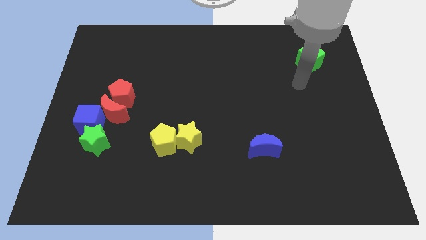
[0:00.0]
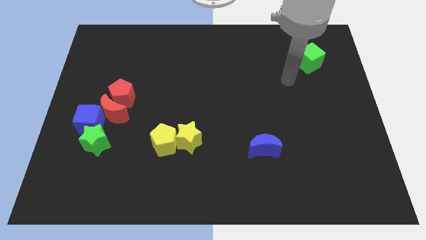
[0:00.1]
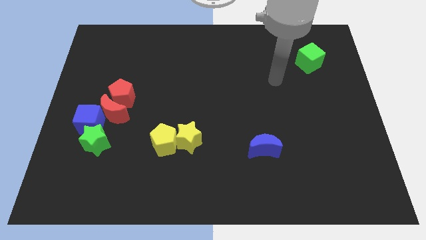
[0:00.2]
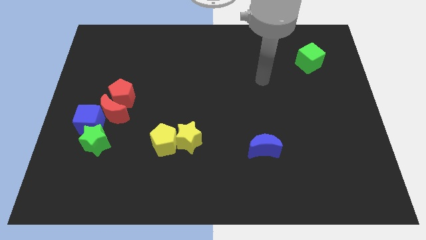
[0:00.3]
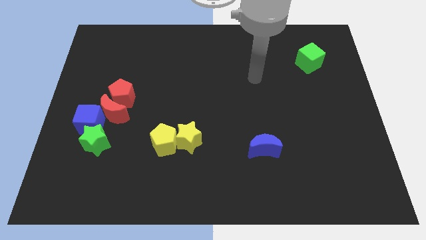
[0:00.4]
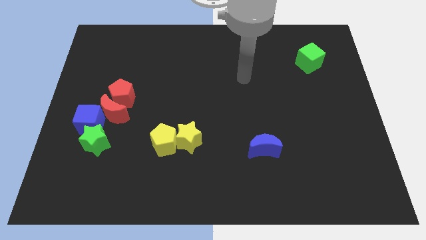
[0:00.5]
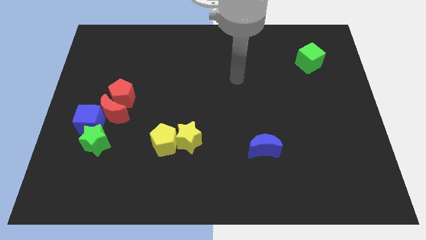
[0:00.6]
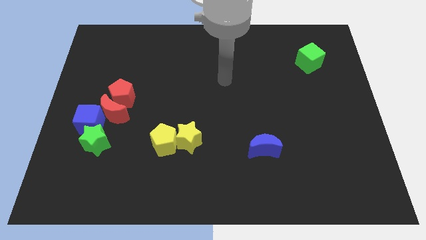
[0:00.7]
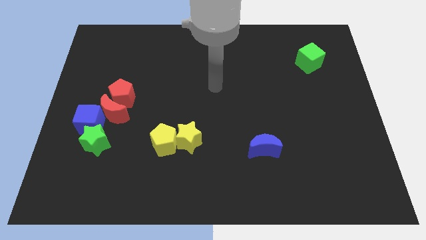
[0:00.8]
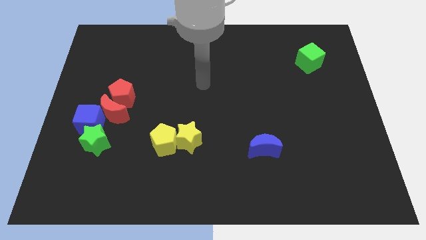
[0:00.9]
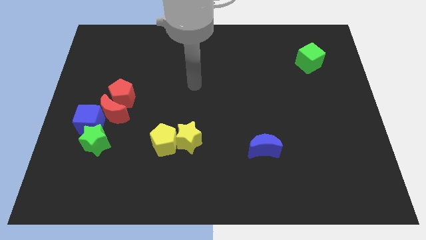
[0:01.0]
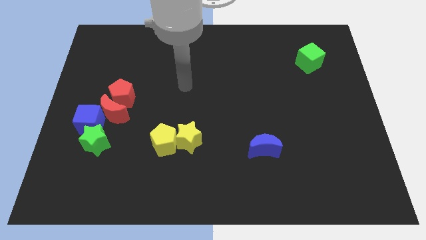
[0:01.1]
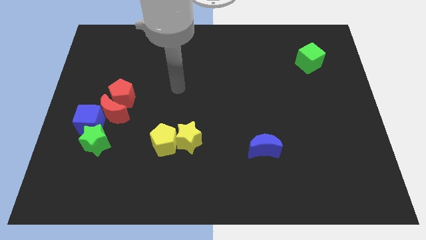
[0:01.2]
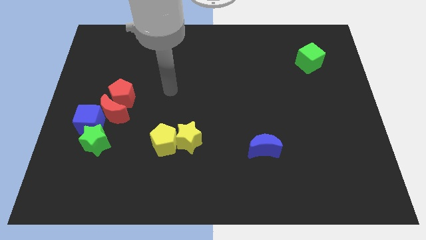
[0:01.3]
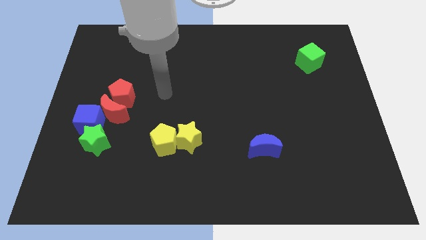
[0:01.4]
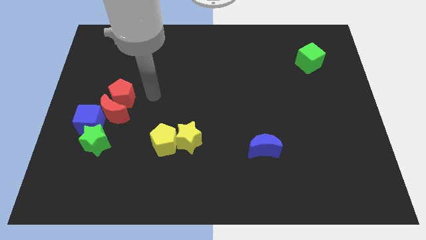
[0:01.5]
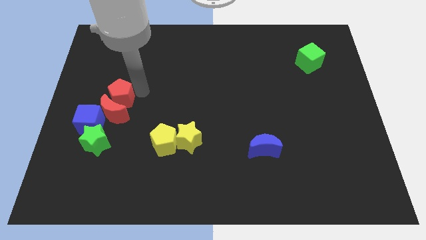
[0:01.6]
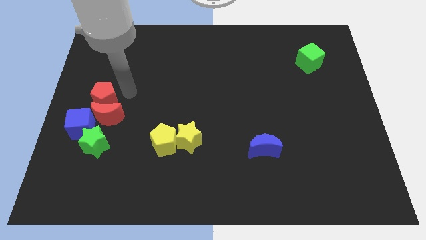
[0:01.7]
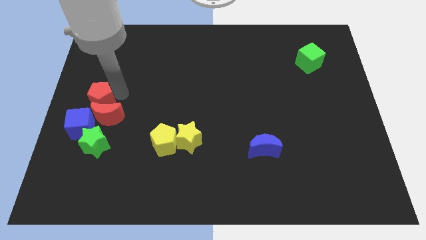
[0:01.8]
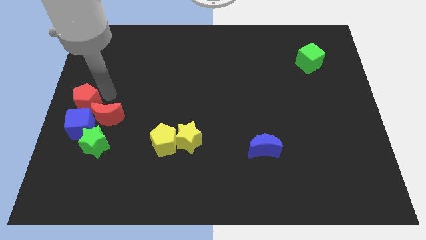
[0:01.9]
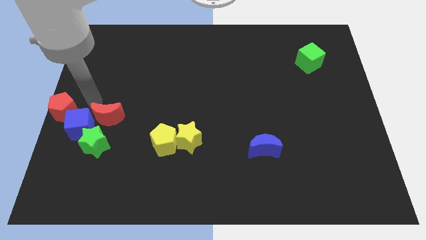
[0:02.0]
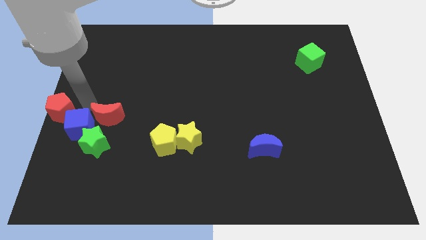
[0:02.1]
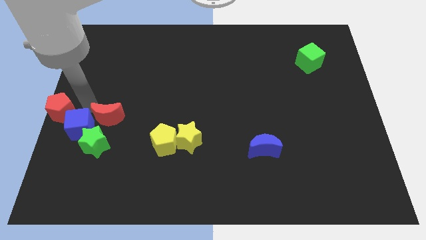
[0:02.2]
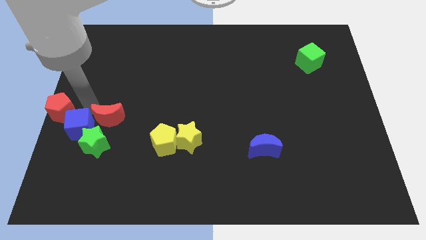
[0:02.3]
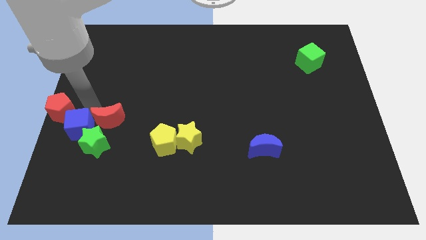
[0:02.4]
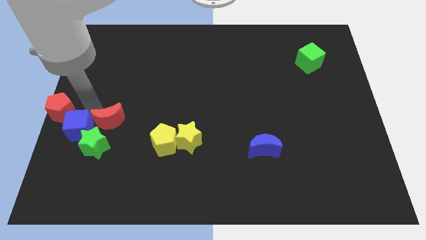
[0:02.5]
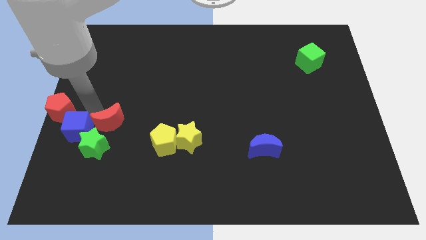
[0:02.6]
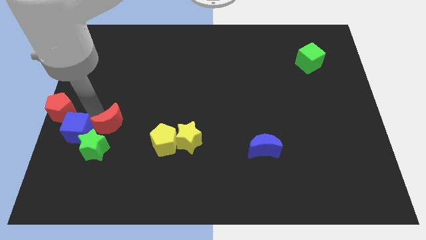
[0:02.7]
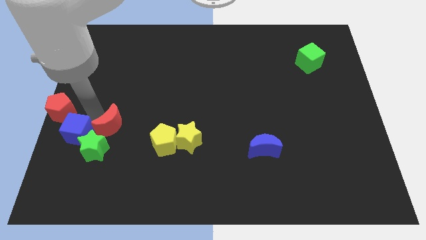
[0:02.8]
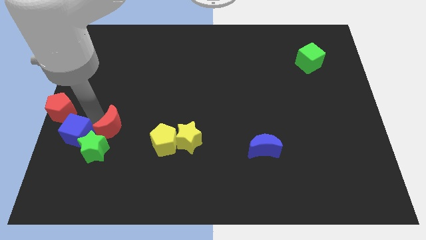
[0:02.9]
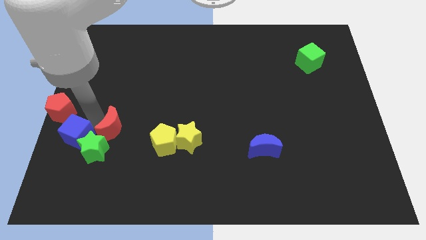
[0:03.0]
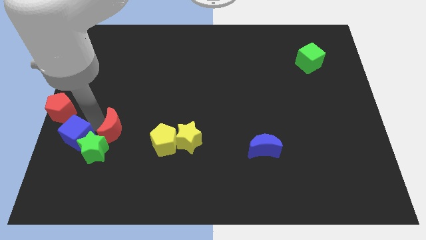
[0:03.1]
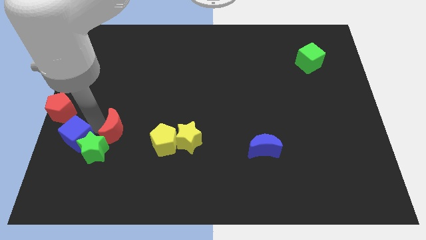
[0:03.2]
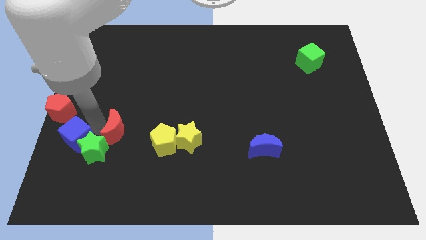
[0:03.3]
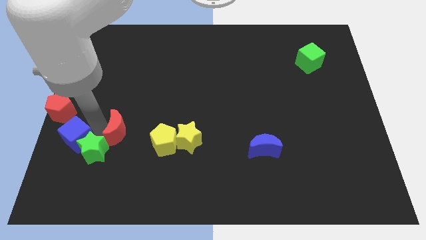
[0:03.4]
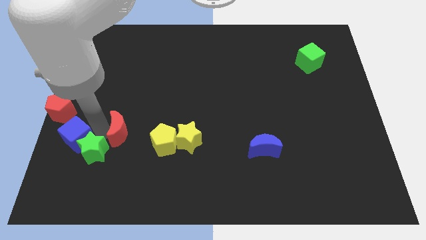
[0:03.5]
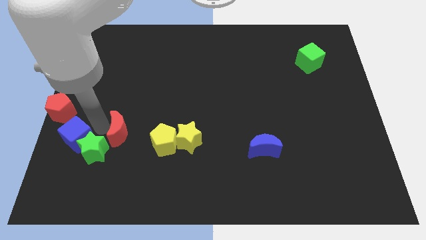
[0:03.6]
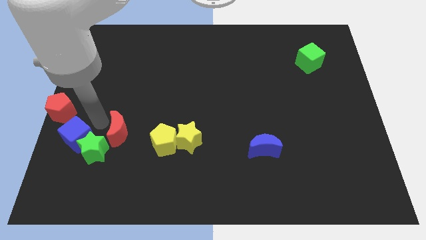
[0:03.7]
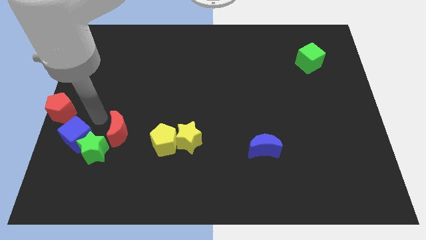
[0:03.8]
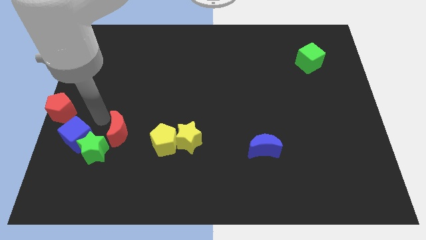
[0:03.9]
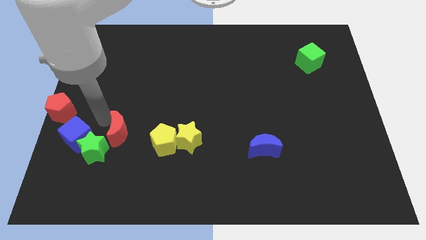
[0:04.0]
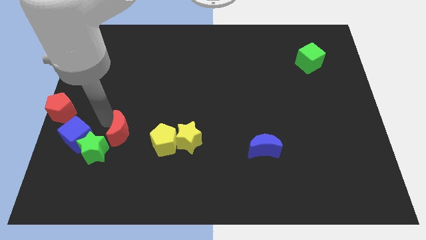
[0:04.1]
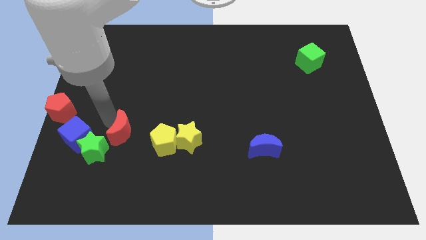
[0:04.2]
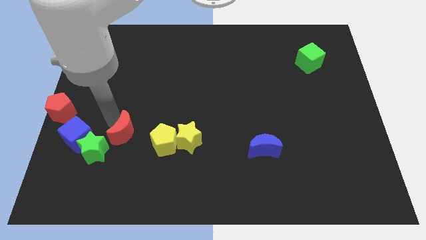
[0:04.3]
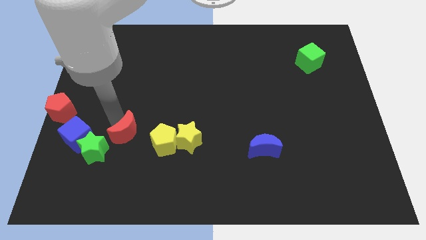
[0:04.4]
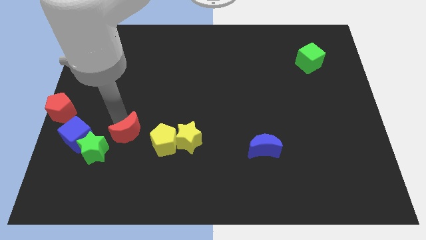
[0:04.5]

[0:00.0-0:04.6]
slide the red moon a little diagonally downwards and to the right

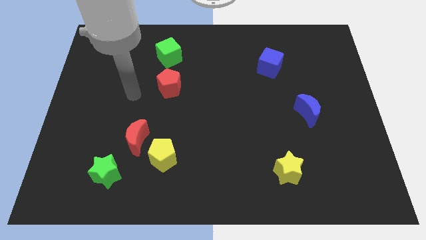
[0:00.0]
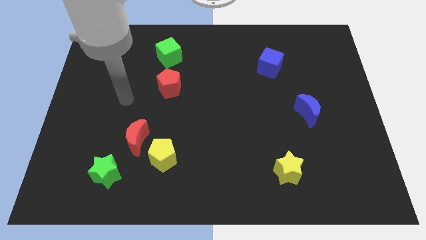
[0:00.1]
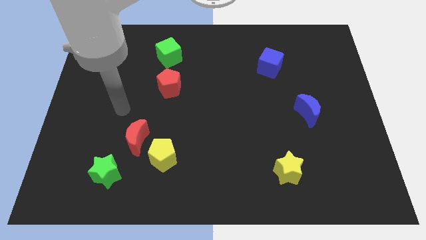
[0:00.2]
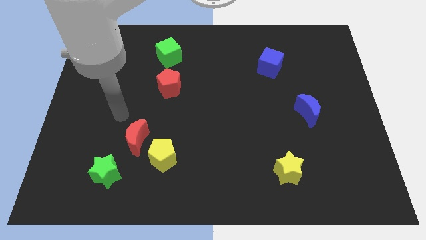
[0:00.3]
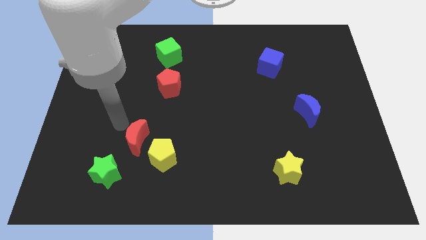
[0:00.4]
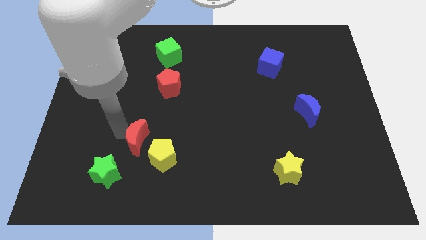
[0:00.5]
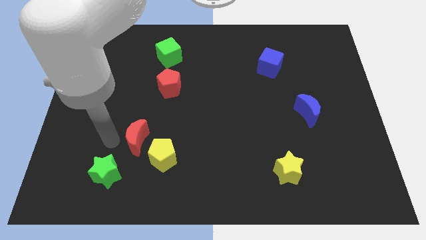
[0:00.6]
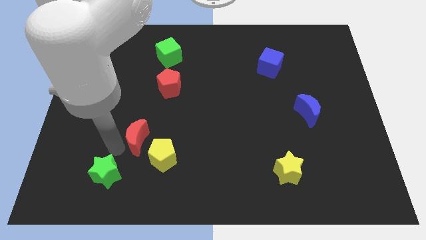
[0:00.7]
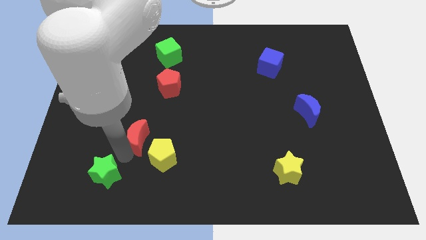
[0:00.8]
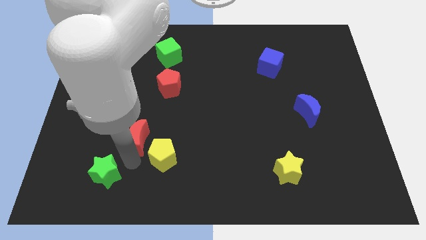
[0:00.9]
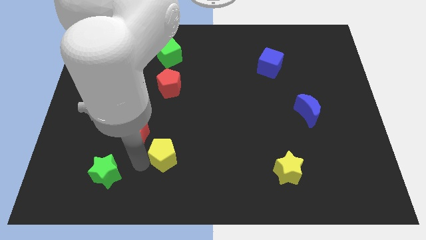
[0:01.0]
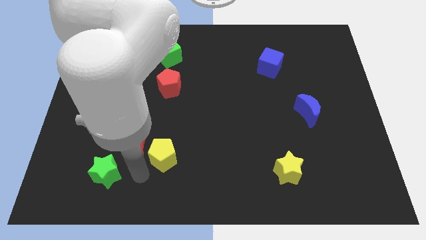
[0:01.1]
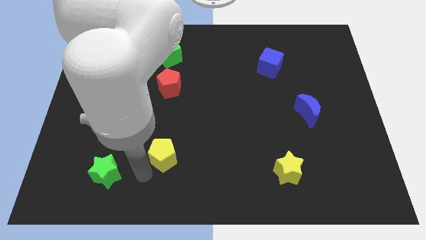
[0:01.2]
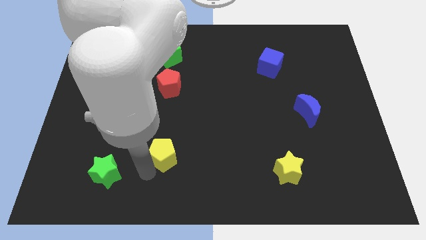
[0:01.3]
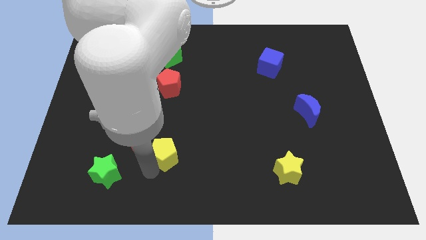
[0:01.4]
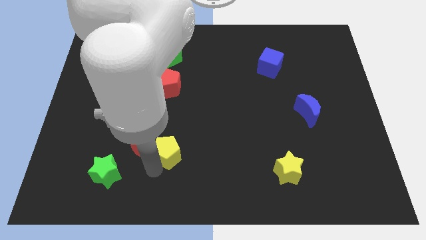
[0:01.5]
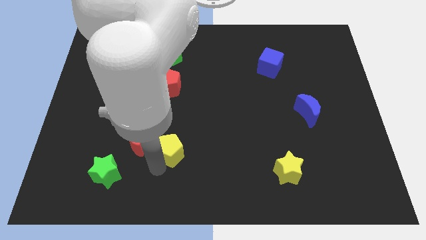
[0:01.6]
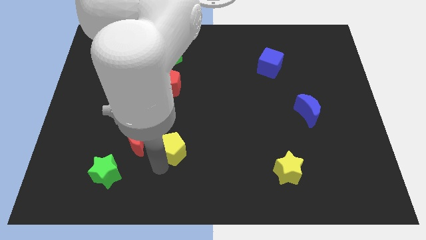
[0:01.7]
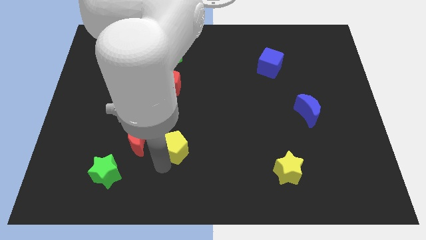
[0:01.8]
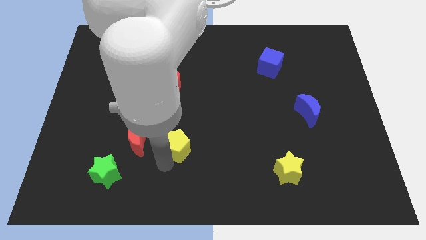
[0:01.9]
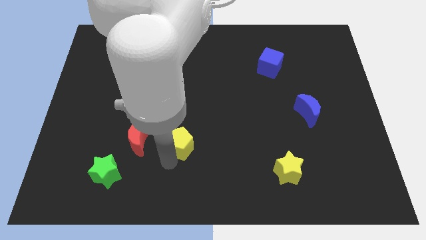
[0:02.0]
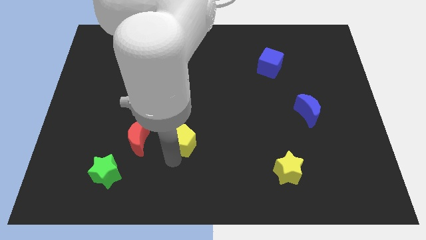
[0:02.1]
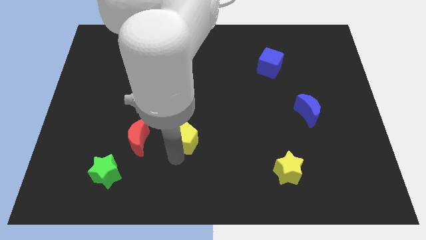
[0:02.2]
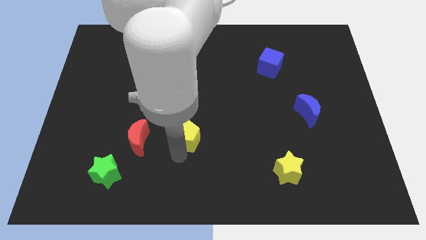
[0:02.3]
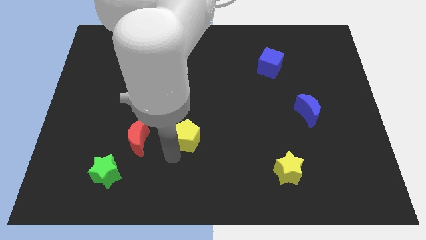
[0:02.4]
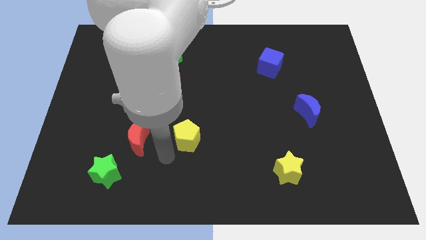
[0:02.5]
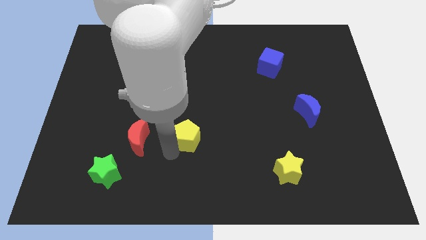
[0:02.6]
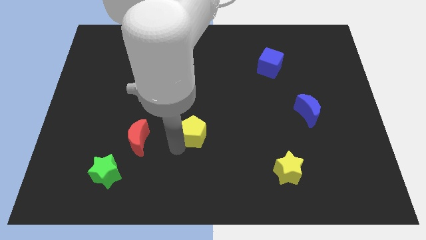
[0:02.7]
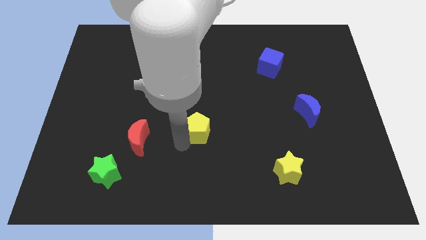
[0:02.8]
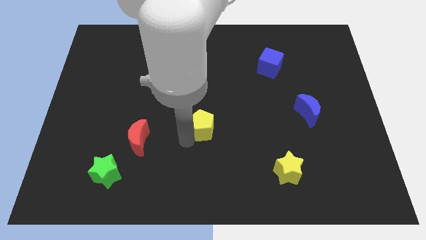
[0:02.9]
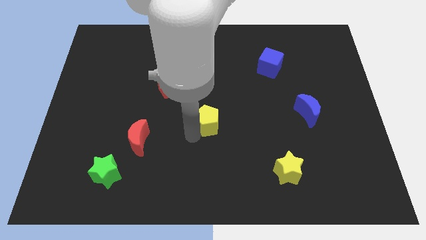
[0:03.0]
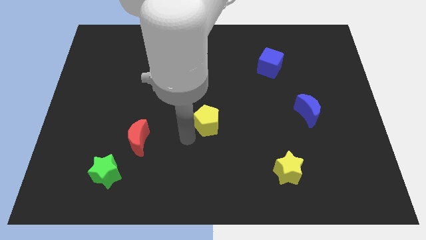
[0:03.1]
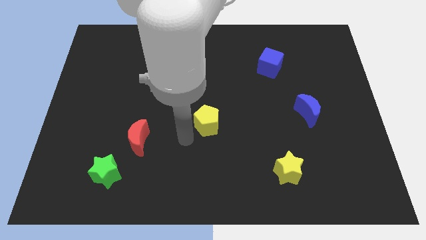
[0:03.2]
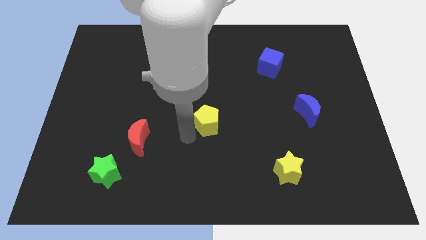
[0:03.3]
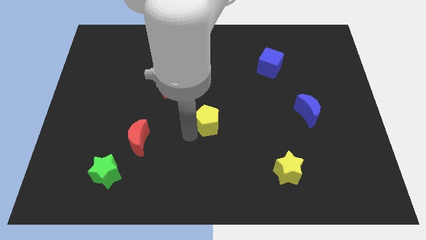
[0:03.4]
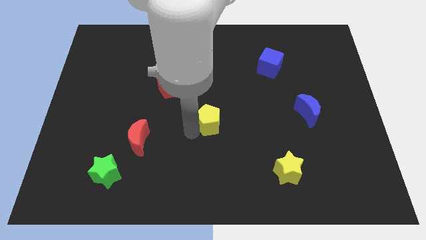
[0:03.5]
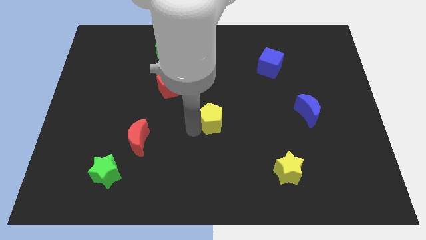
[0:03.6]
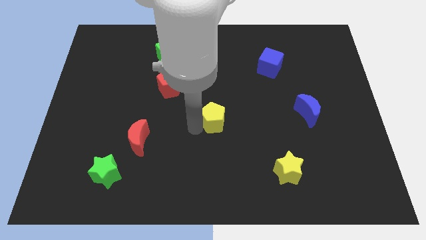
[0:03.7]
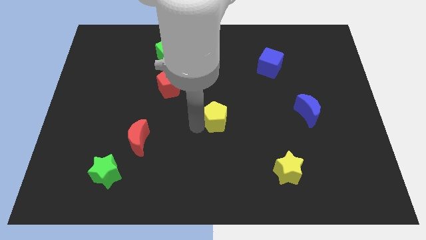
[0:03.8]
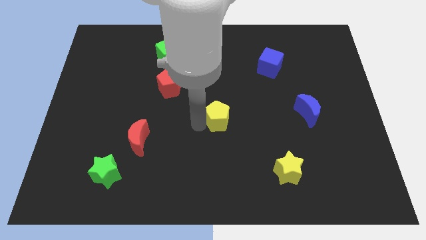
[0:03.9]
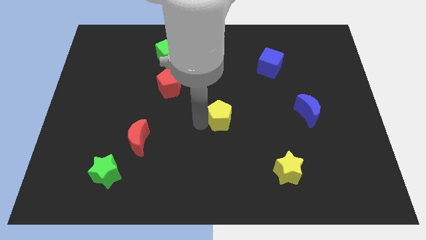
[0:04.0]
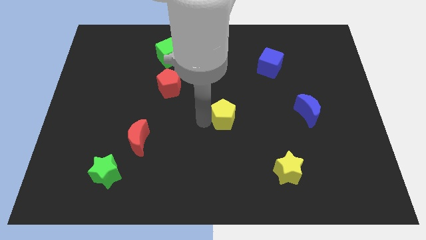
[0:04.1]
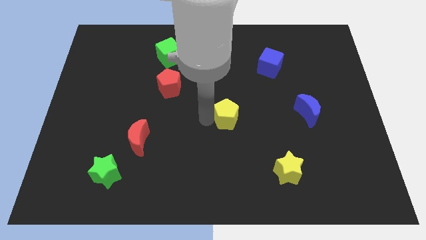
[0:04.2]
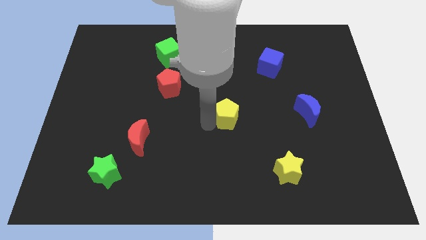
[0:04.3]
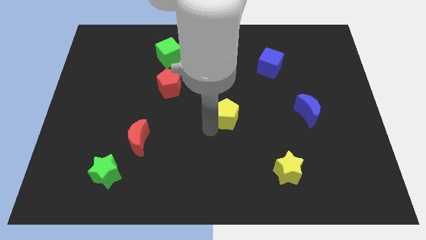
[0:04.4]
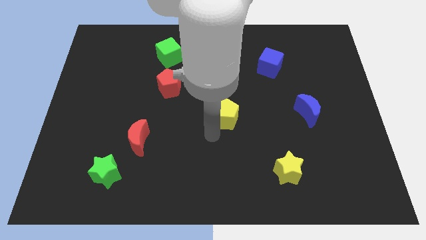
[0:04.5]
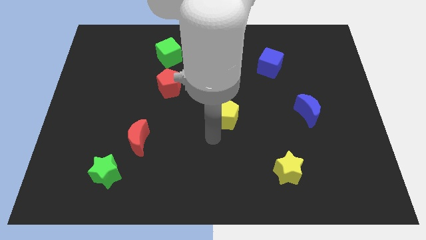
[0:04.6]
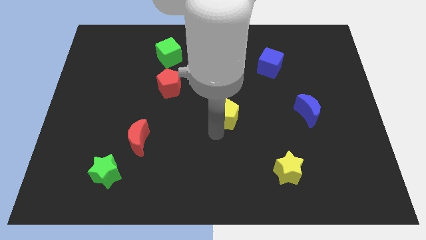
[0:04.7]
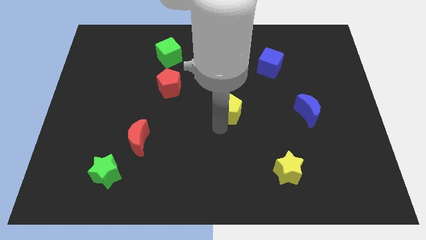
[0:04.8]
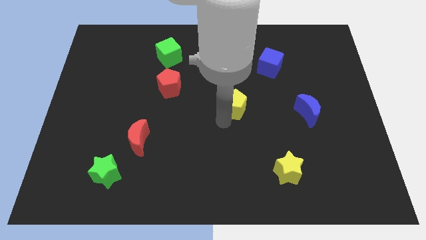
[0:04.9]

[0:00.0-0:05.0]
slide the yellow pentagon upwards and right
